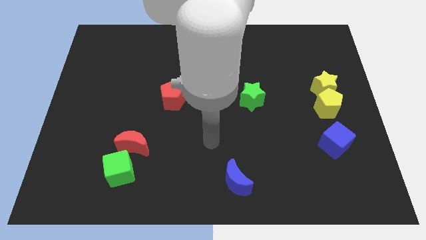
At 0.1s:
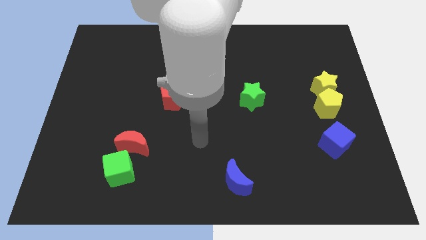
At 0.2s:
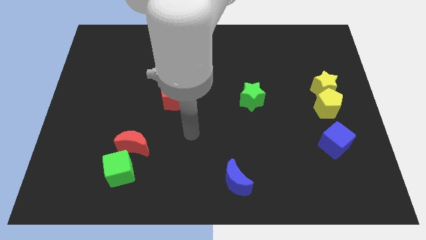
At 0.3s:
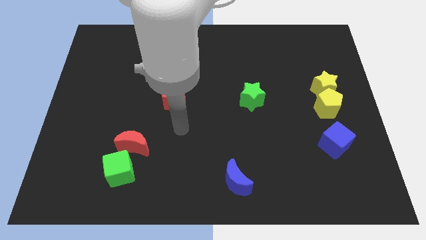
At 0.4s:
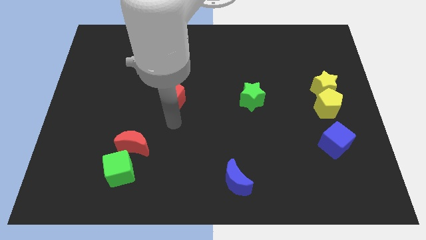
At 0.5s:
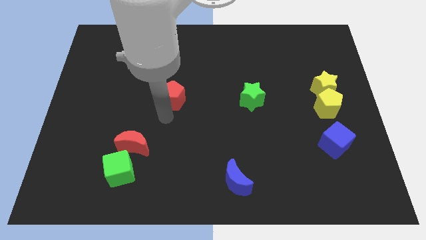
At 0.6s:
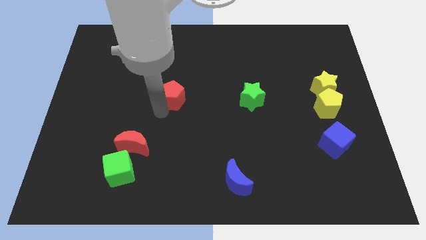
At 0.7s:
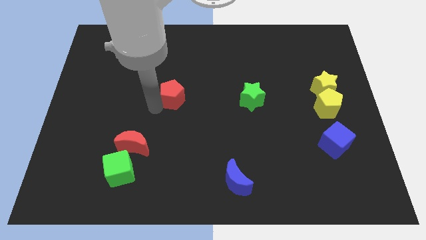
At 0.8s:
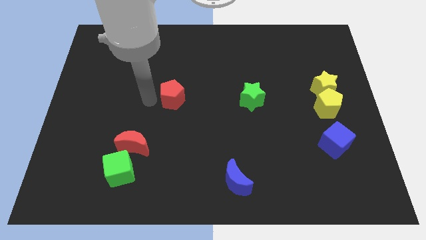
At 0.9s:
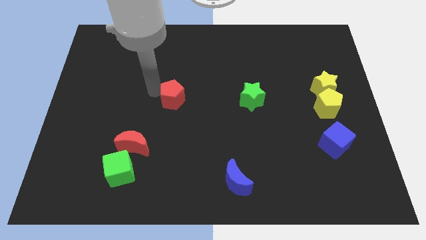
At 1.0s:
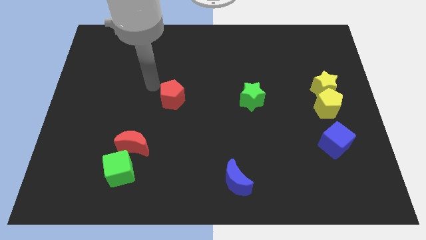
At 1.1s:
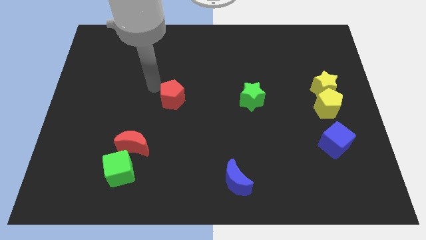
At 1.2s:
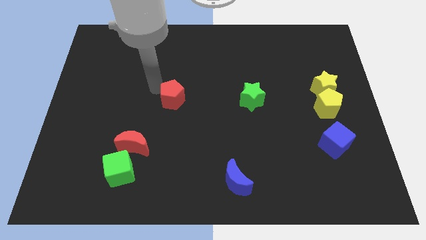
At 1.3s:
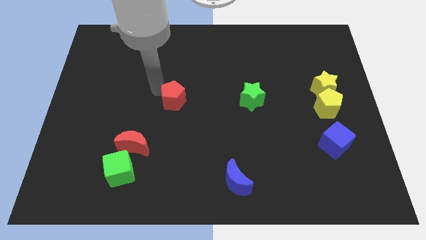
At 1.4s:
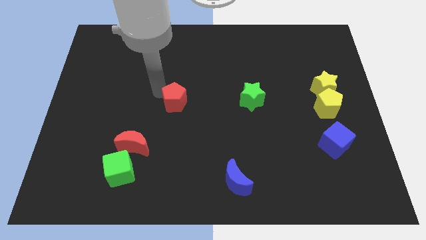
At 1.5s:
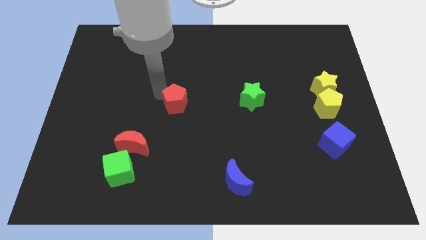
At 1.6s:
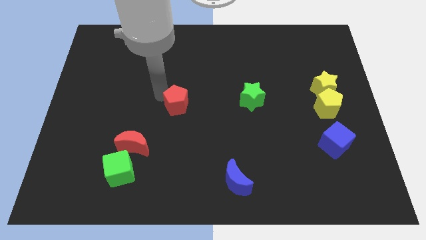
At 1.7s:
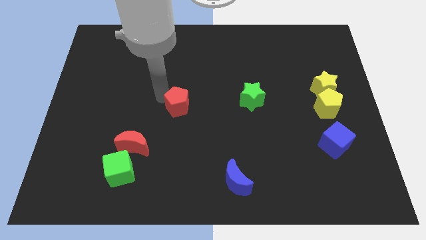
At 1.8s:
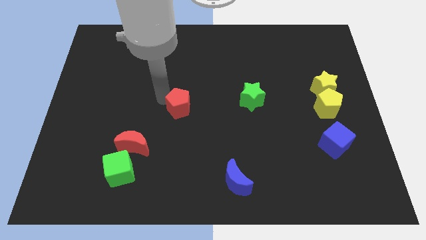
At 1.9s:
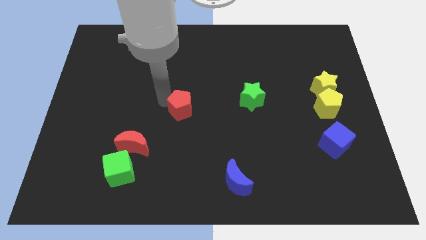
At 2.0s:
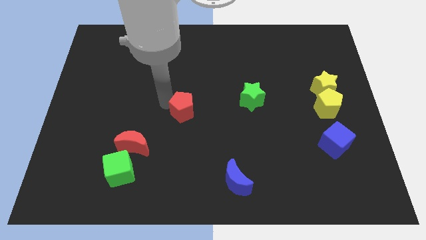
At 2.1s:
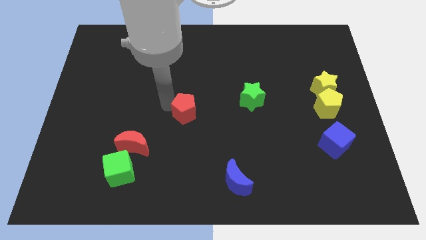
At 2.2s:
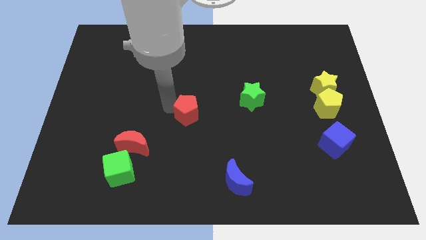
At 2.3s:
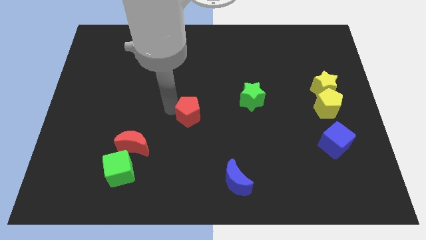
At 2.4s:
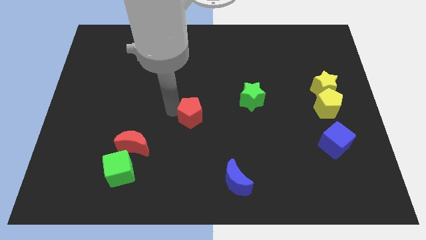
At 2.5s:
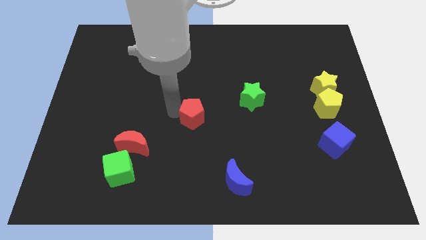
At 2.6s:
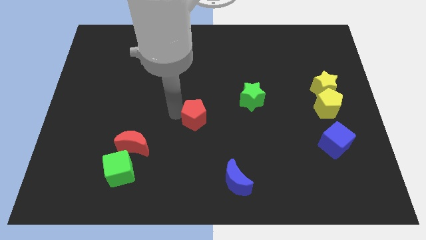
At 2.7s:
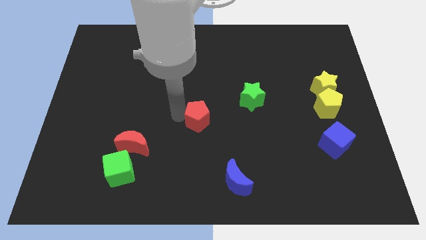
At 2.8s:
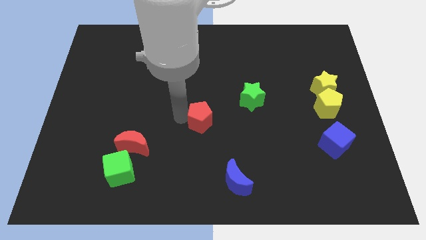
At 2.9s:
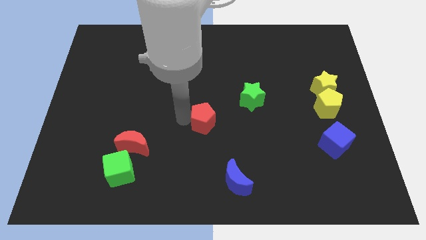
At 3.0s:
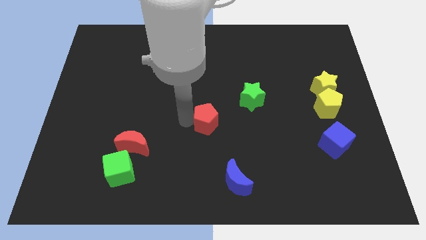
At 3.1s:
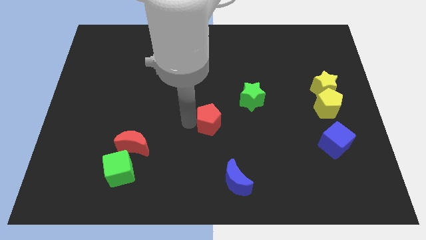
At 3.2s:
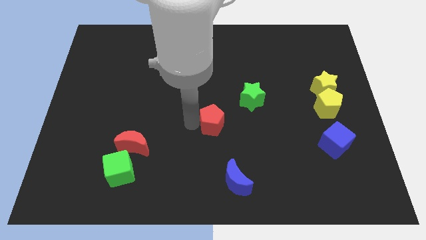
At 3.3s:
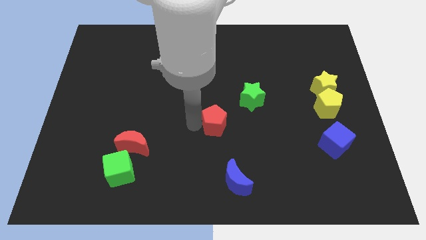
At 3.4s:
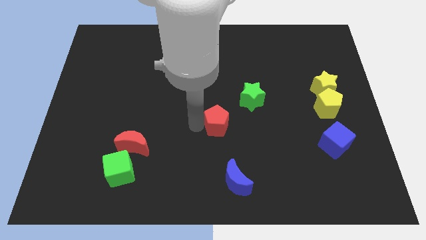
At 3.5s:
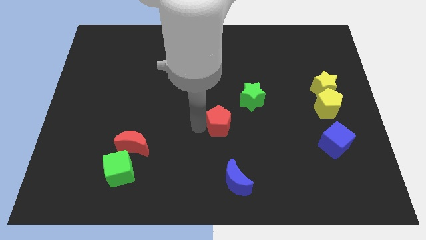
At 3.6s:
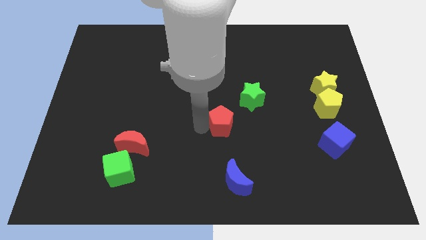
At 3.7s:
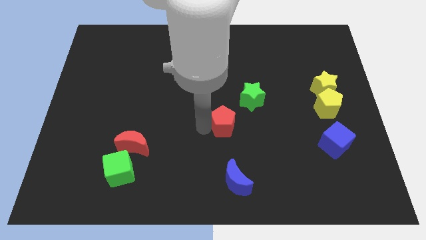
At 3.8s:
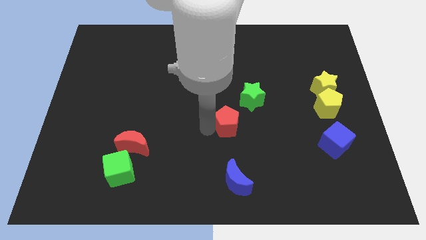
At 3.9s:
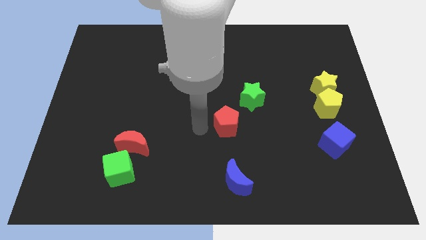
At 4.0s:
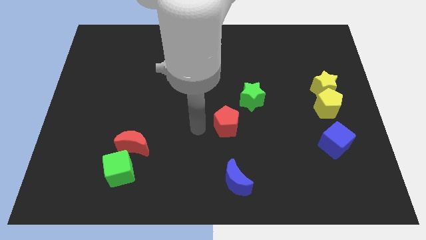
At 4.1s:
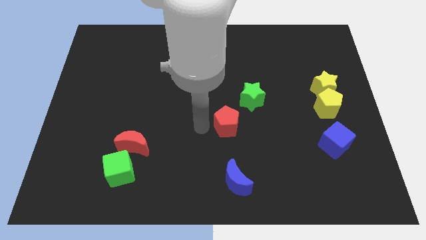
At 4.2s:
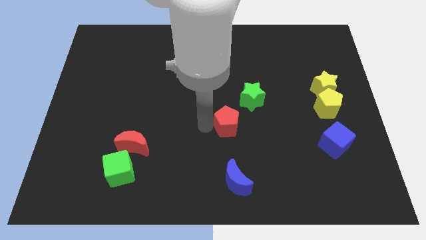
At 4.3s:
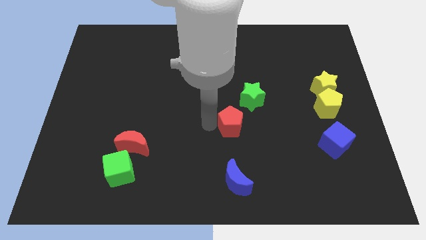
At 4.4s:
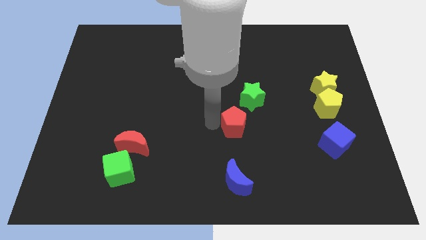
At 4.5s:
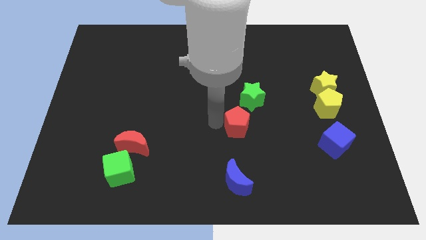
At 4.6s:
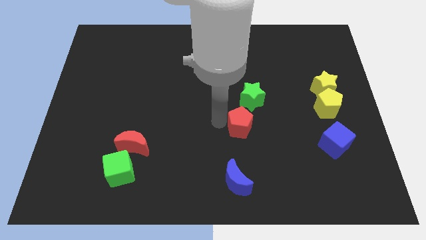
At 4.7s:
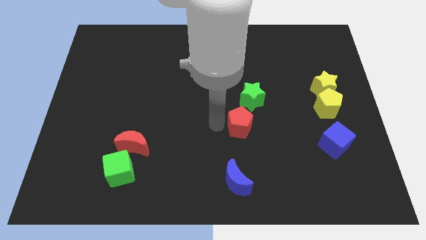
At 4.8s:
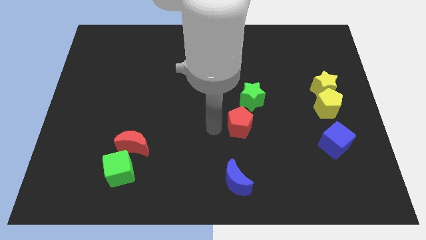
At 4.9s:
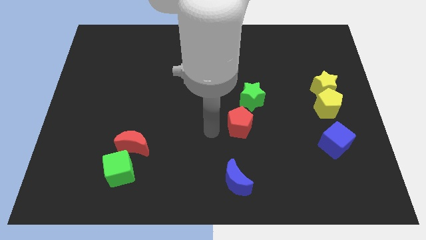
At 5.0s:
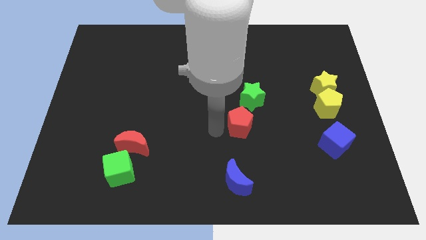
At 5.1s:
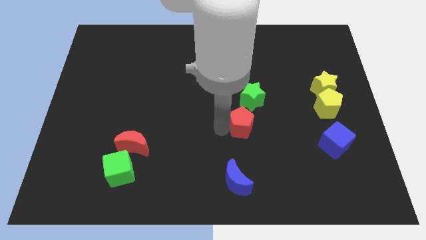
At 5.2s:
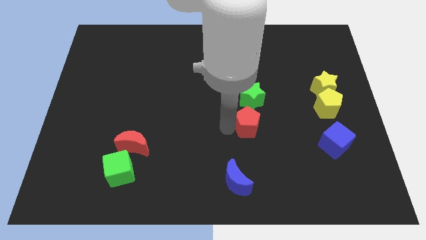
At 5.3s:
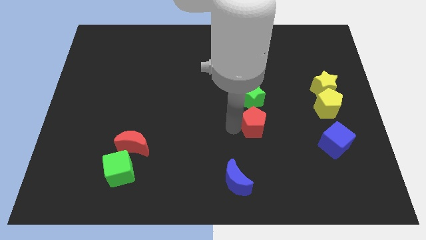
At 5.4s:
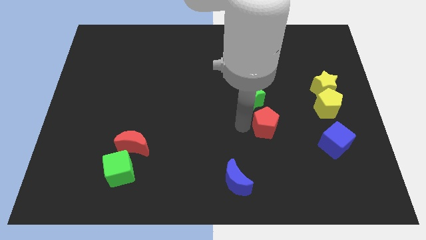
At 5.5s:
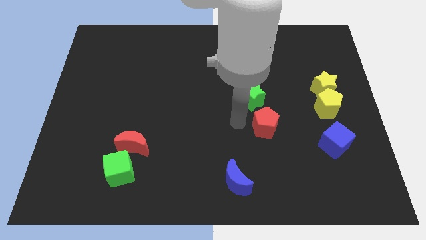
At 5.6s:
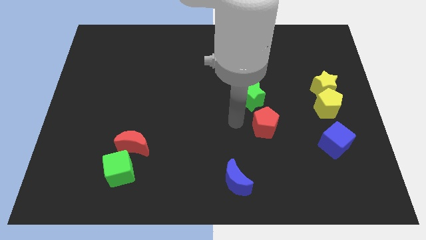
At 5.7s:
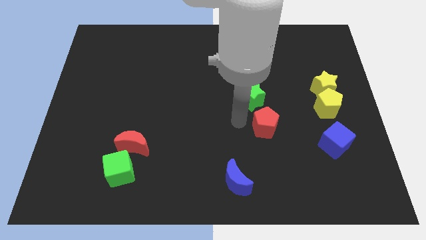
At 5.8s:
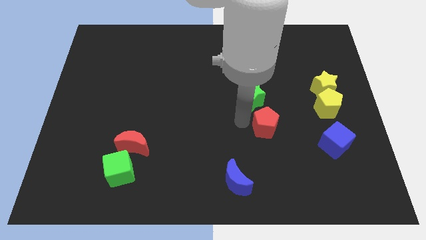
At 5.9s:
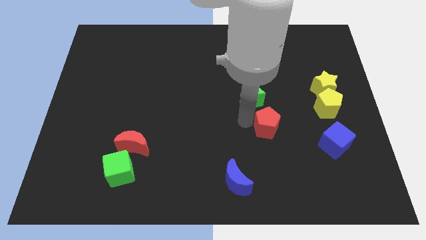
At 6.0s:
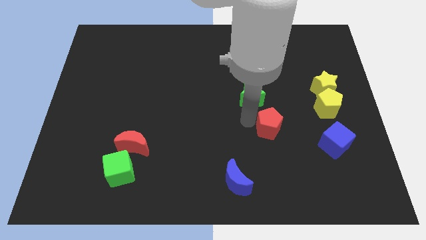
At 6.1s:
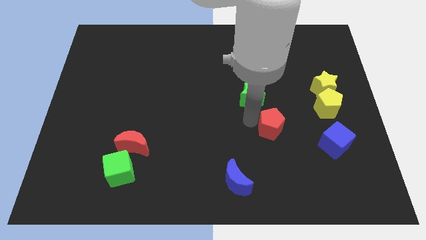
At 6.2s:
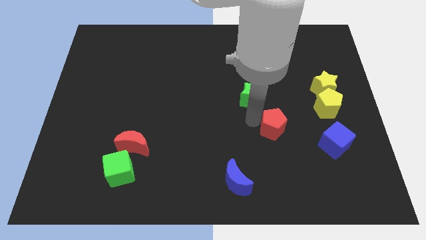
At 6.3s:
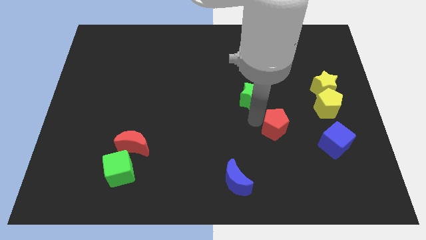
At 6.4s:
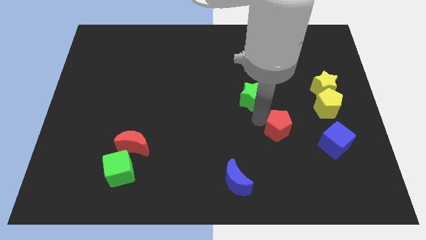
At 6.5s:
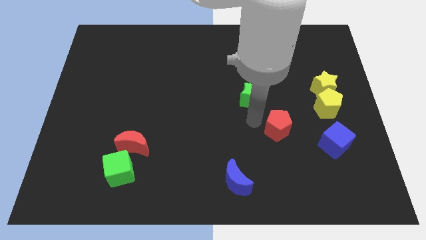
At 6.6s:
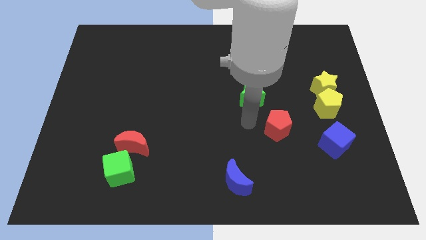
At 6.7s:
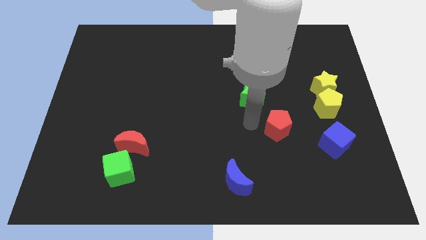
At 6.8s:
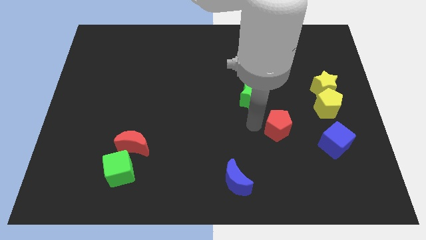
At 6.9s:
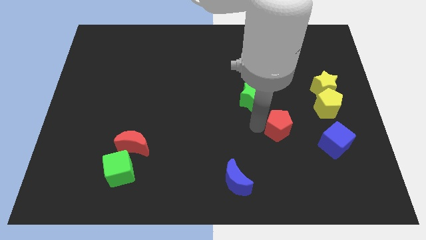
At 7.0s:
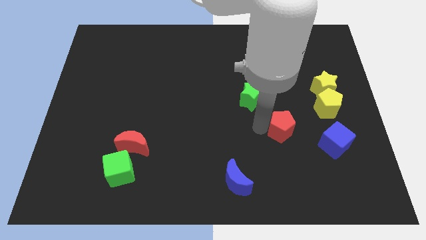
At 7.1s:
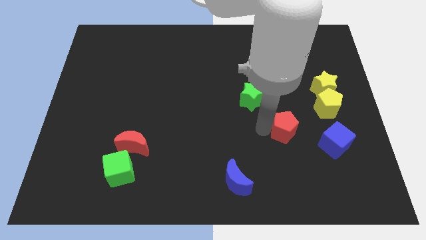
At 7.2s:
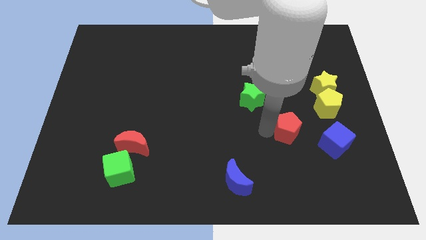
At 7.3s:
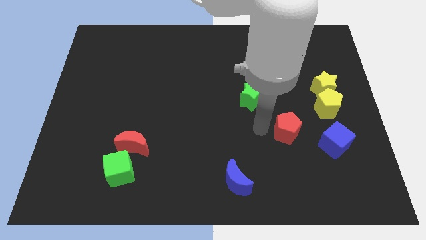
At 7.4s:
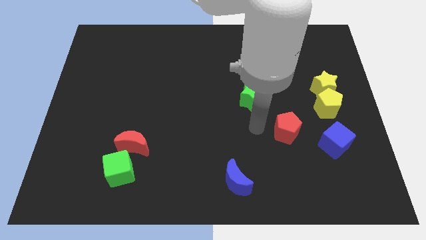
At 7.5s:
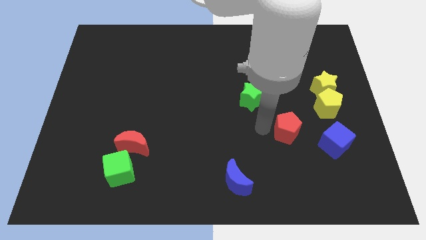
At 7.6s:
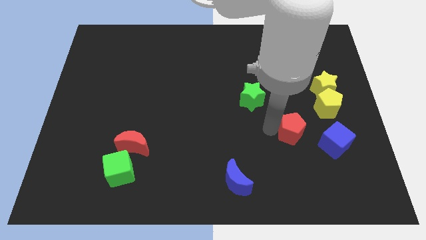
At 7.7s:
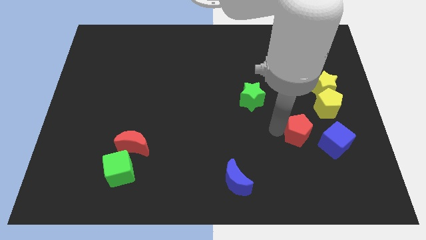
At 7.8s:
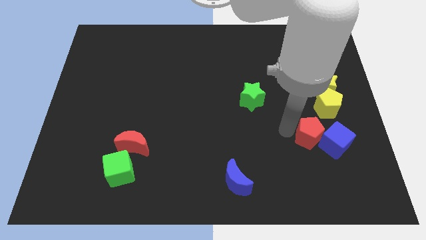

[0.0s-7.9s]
move the red pentagon to the blue cube

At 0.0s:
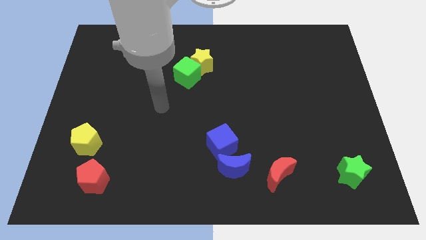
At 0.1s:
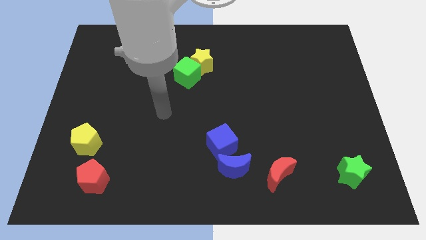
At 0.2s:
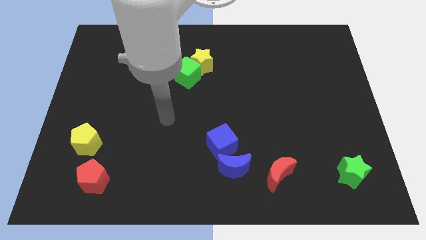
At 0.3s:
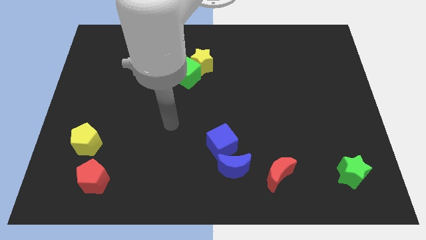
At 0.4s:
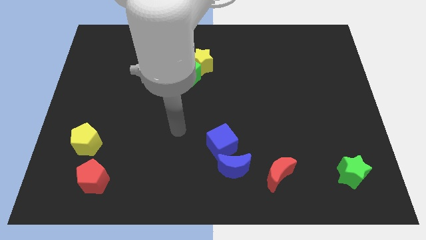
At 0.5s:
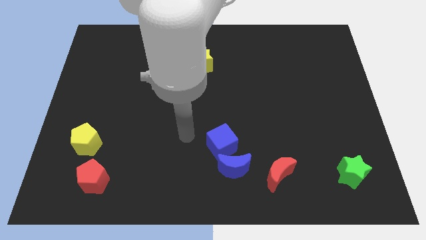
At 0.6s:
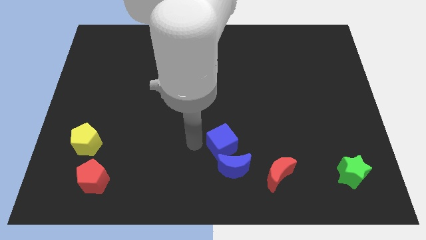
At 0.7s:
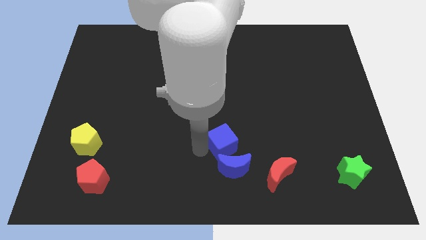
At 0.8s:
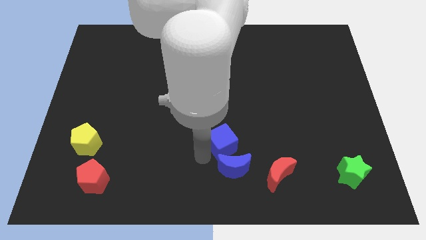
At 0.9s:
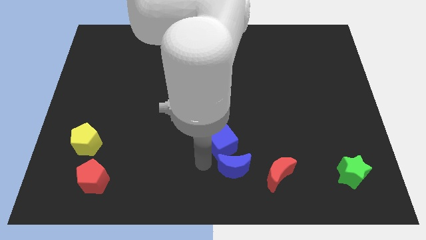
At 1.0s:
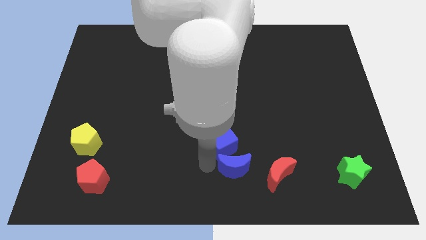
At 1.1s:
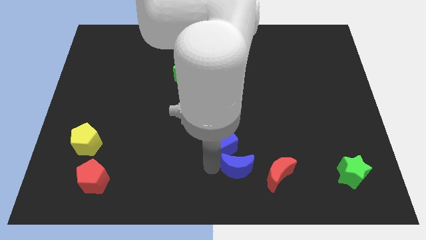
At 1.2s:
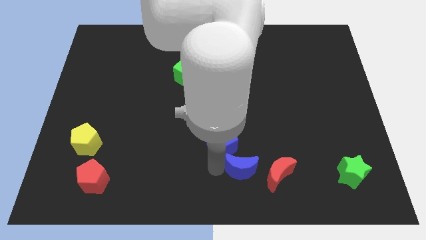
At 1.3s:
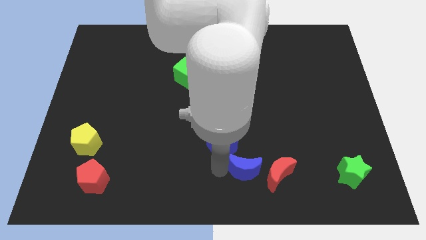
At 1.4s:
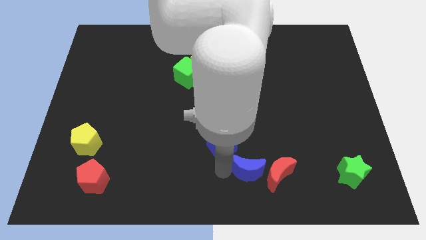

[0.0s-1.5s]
slide the blue moon next to the red moon
